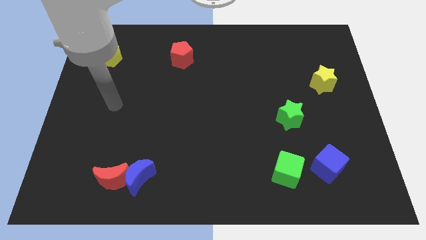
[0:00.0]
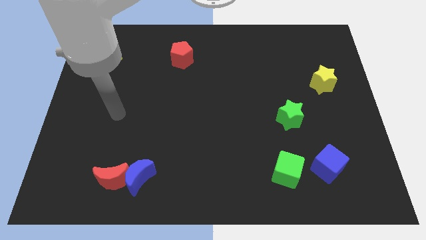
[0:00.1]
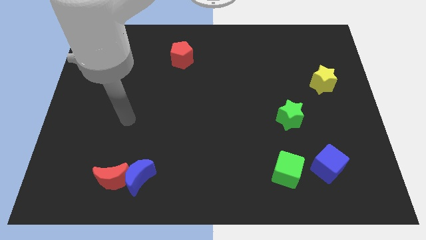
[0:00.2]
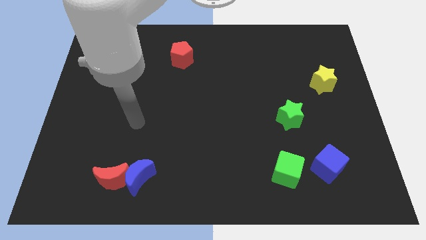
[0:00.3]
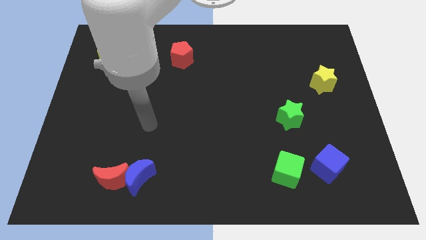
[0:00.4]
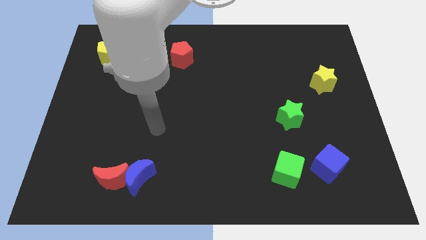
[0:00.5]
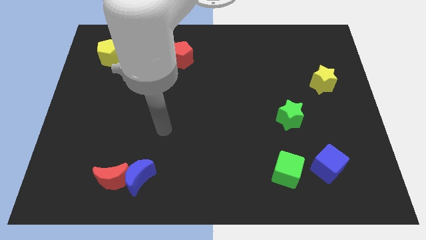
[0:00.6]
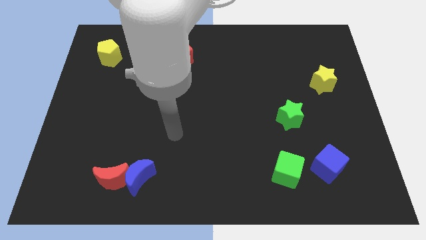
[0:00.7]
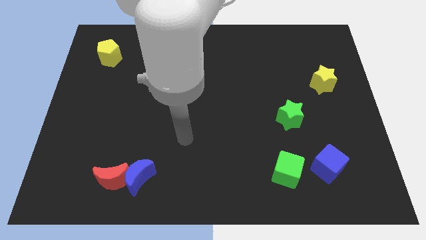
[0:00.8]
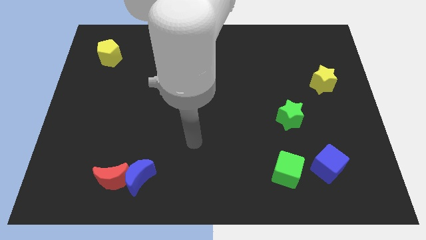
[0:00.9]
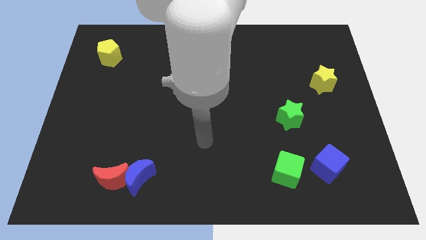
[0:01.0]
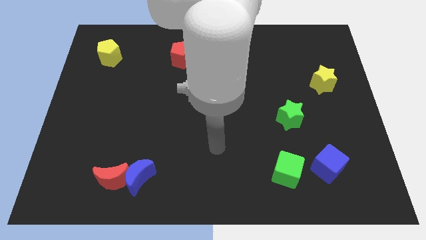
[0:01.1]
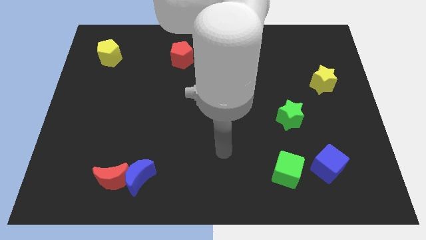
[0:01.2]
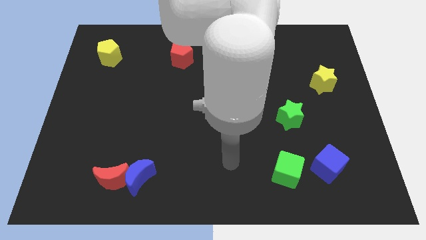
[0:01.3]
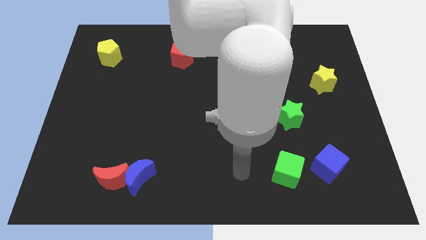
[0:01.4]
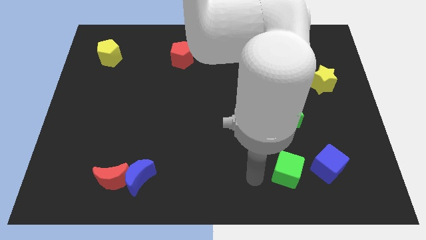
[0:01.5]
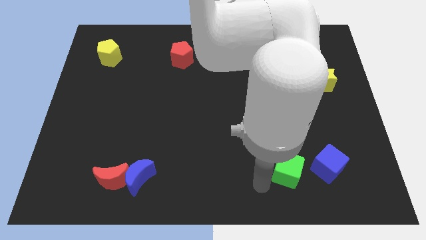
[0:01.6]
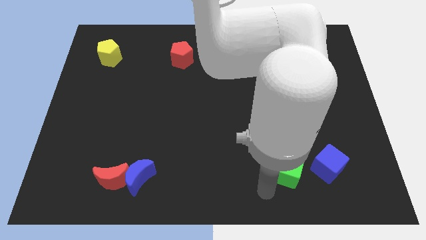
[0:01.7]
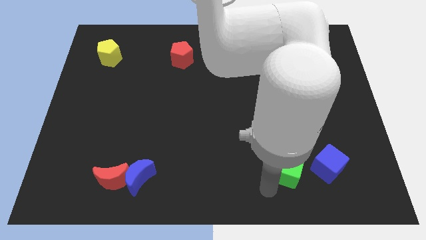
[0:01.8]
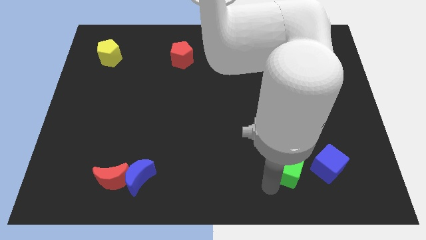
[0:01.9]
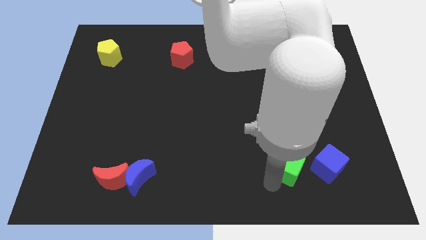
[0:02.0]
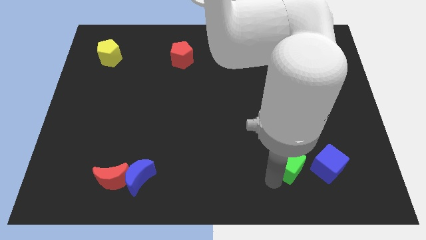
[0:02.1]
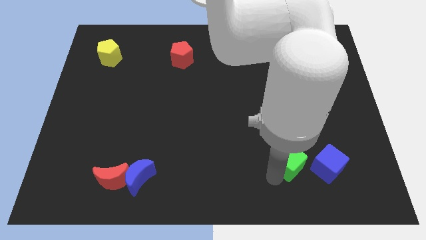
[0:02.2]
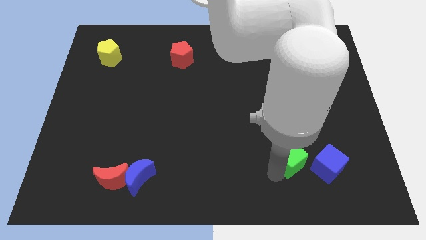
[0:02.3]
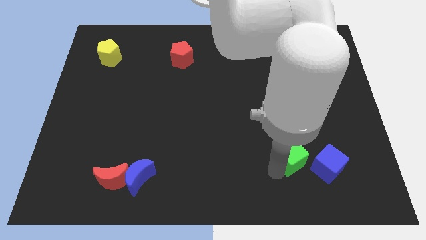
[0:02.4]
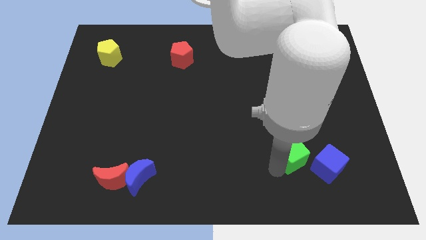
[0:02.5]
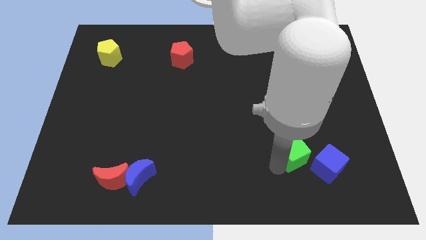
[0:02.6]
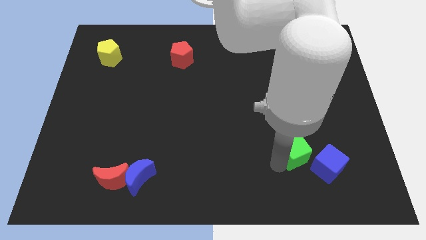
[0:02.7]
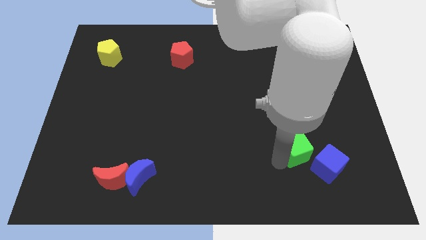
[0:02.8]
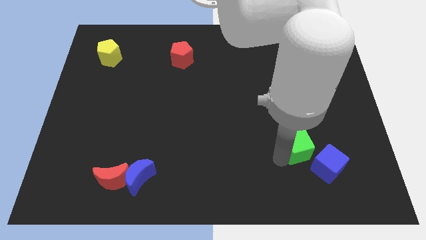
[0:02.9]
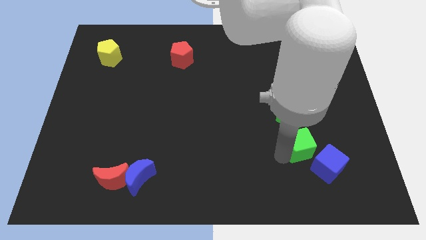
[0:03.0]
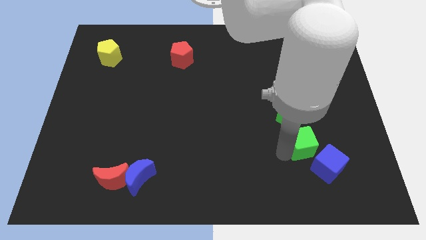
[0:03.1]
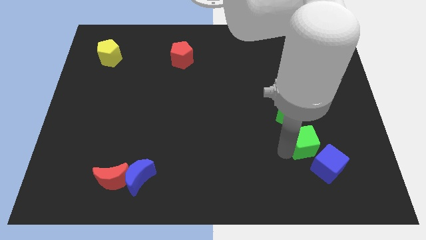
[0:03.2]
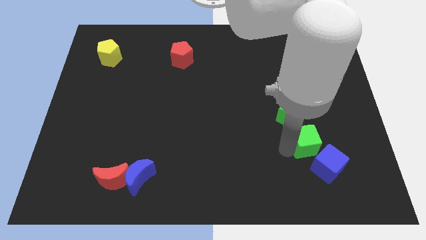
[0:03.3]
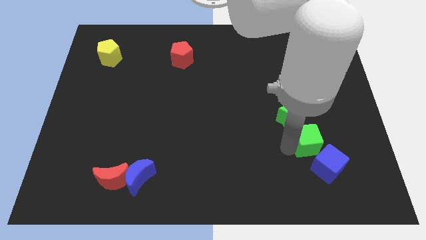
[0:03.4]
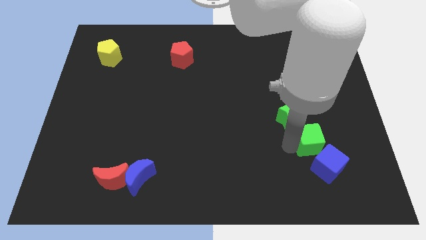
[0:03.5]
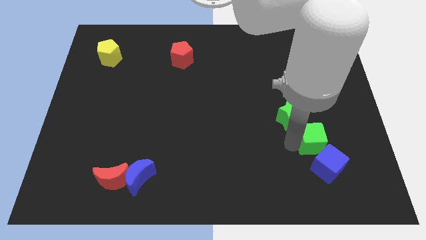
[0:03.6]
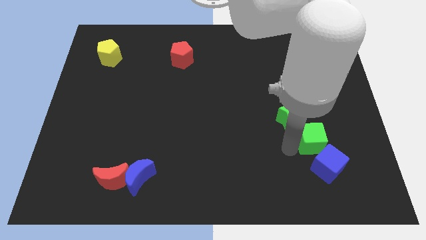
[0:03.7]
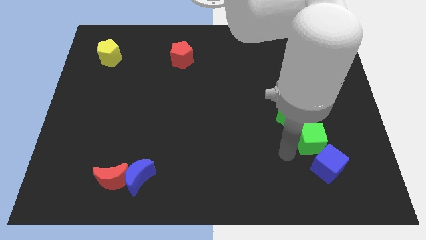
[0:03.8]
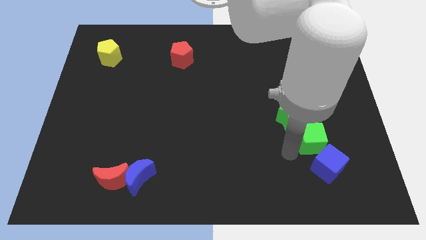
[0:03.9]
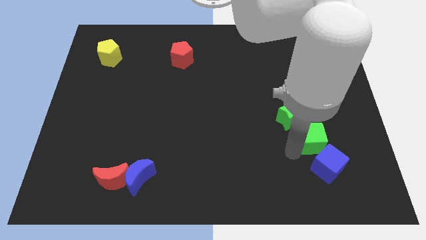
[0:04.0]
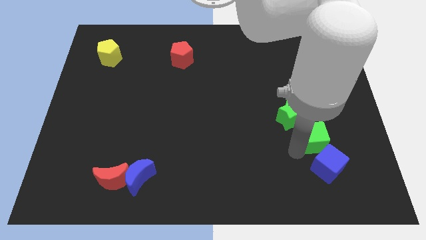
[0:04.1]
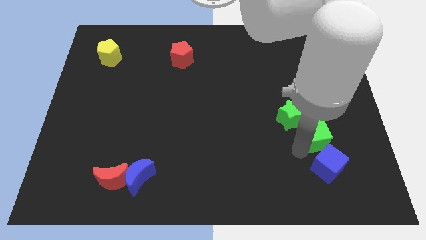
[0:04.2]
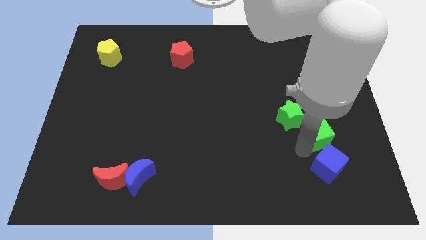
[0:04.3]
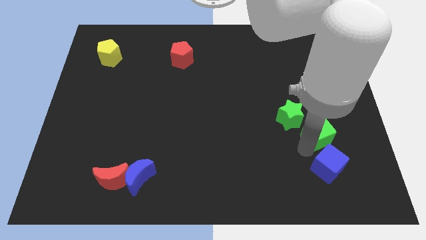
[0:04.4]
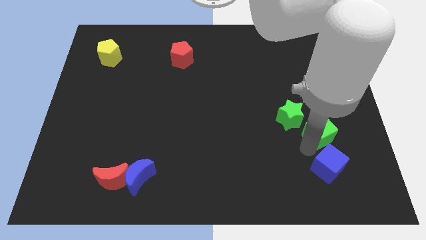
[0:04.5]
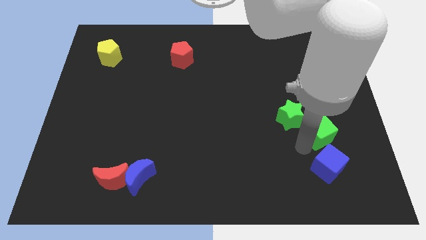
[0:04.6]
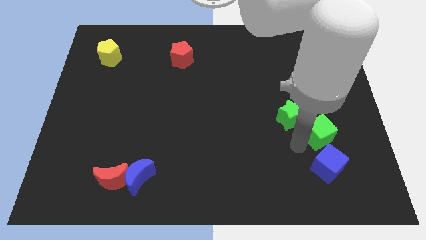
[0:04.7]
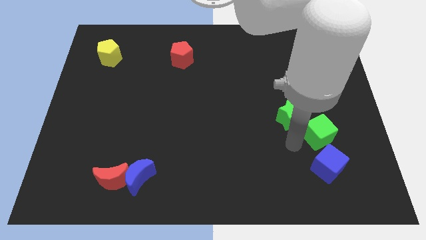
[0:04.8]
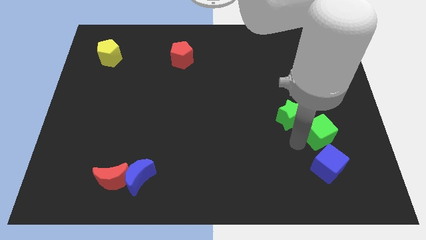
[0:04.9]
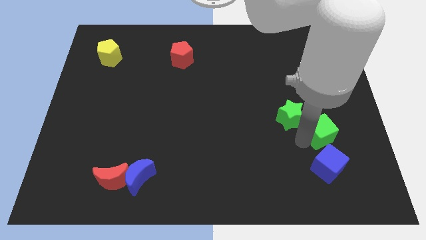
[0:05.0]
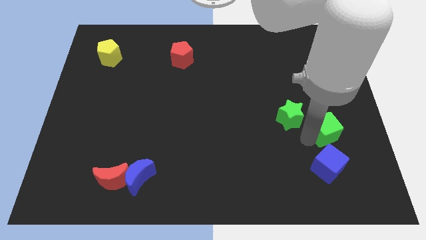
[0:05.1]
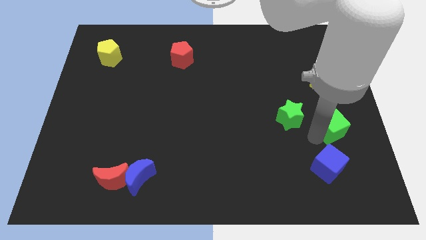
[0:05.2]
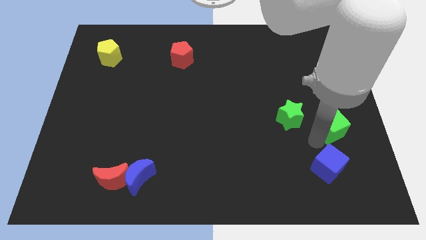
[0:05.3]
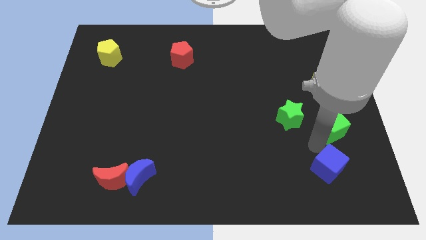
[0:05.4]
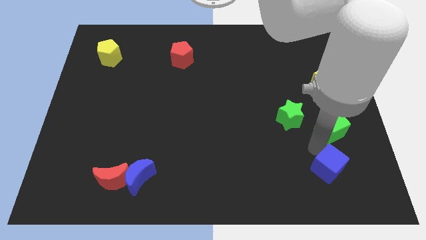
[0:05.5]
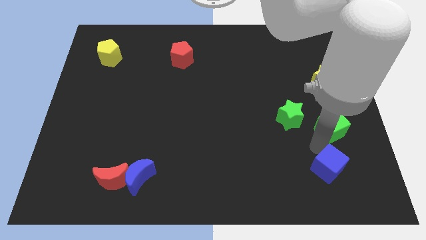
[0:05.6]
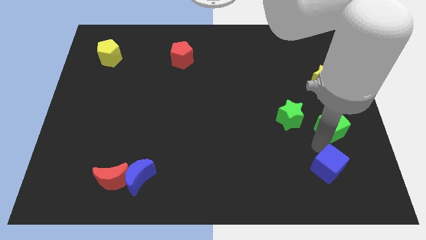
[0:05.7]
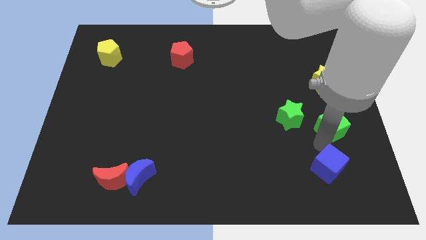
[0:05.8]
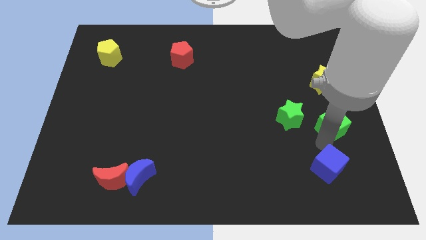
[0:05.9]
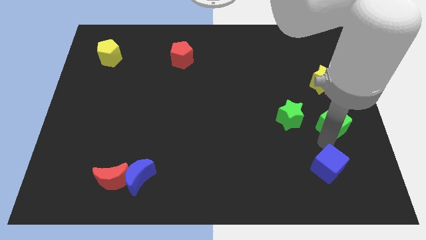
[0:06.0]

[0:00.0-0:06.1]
slide the green cube to the right side of the board

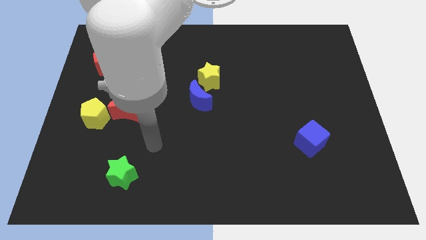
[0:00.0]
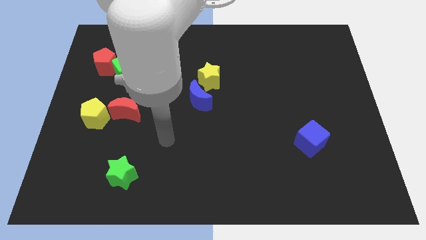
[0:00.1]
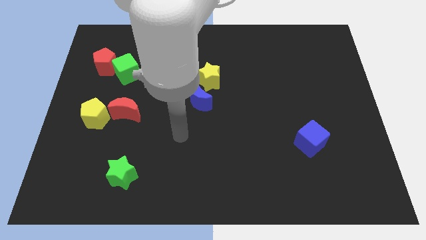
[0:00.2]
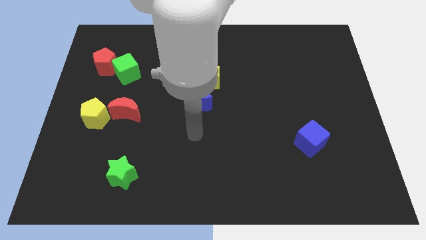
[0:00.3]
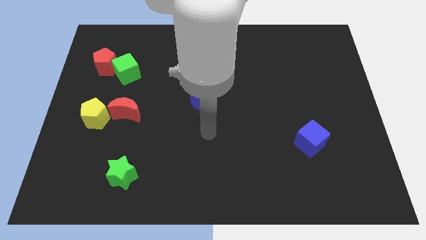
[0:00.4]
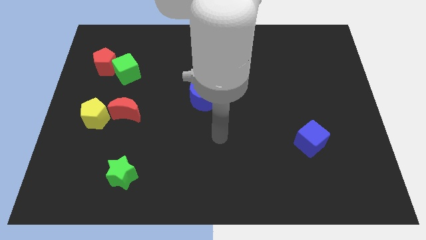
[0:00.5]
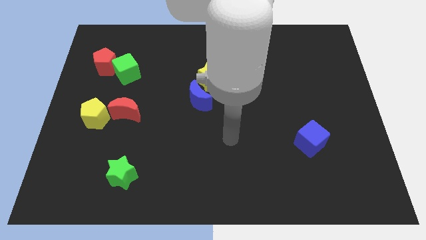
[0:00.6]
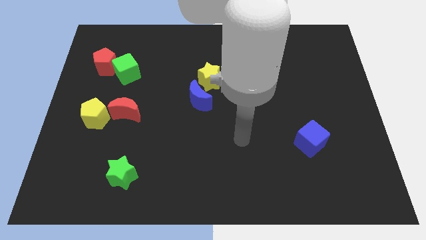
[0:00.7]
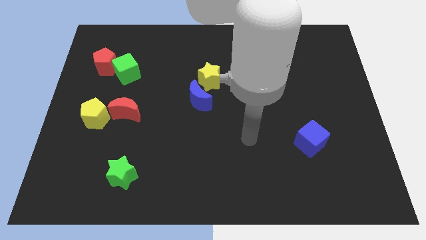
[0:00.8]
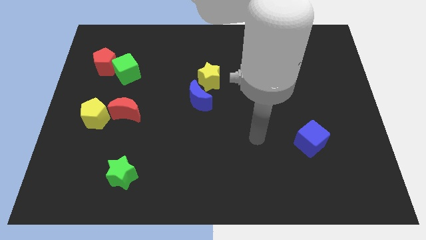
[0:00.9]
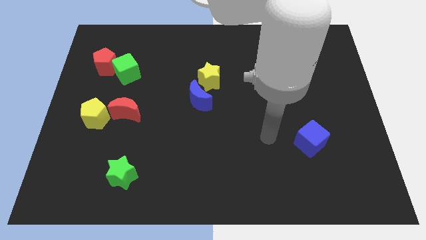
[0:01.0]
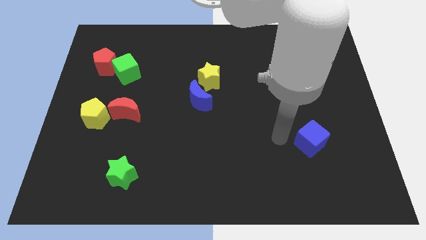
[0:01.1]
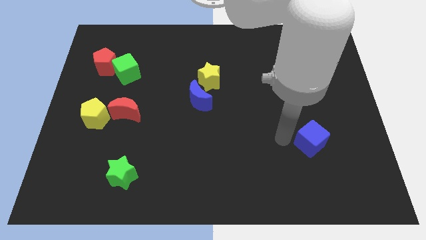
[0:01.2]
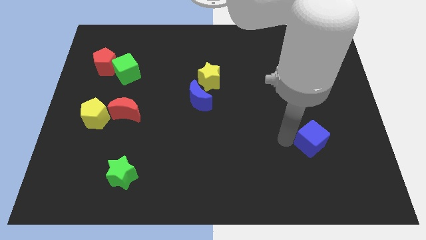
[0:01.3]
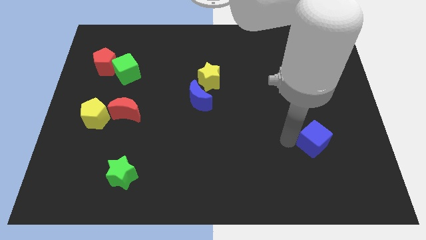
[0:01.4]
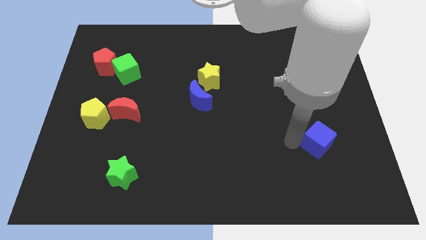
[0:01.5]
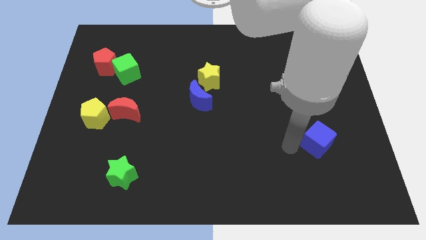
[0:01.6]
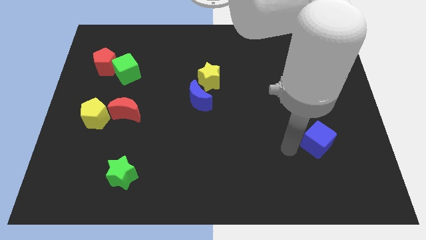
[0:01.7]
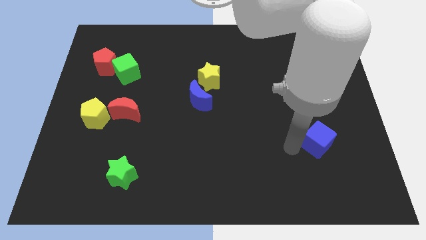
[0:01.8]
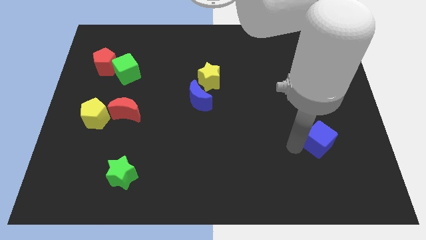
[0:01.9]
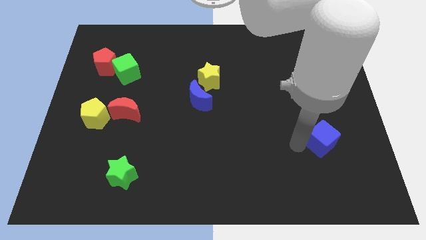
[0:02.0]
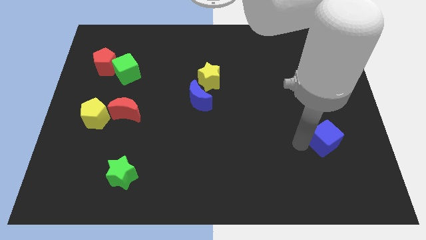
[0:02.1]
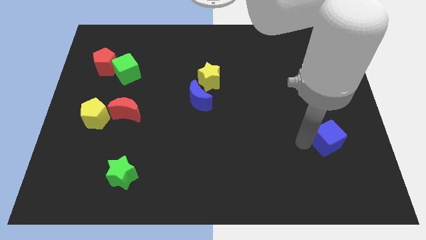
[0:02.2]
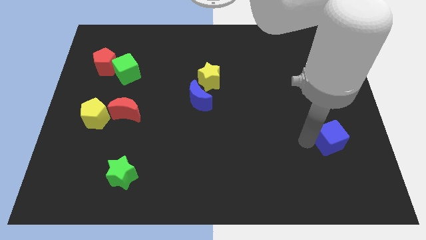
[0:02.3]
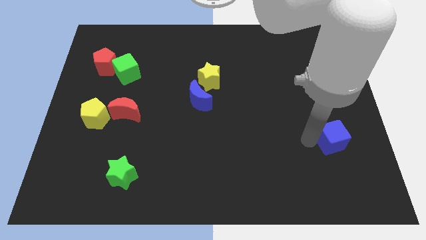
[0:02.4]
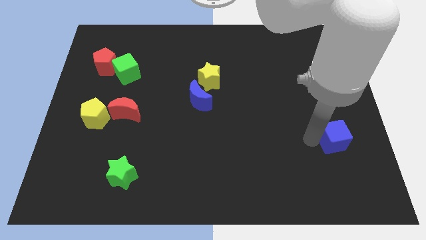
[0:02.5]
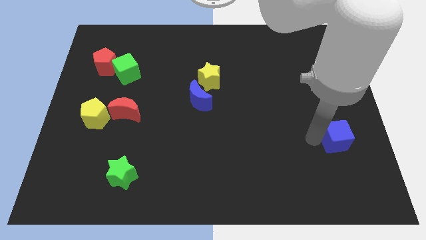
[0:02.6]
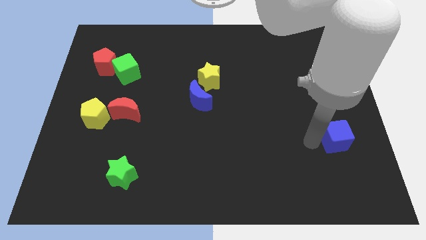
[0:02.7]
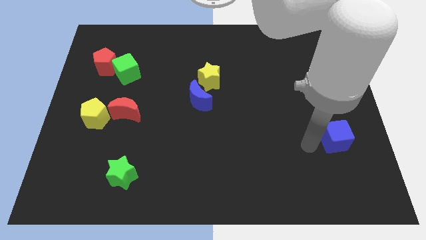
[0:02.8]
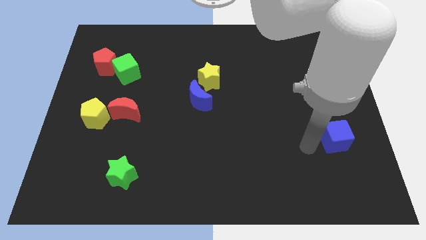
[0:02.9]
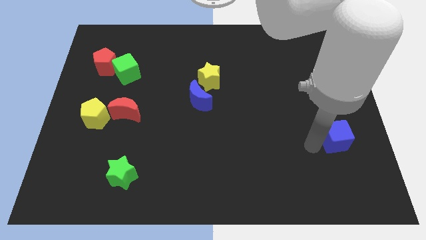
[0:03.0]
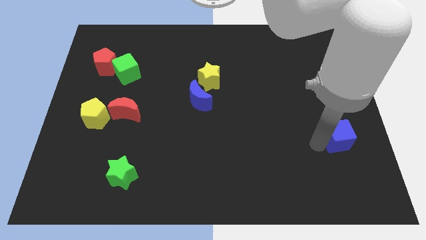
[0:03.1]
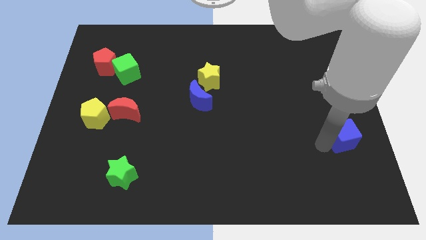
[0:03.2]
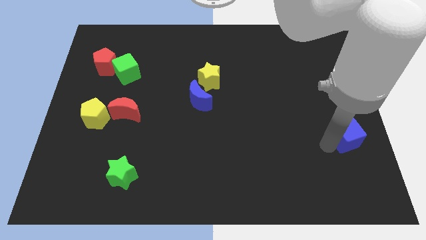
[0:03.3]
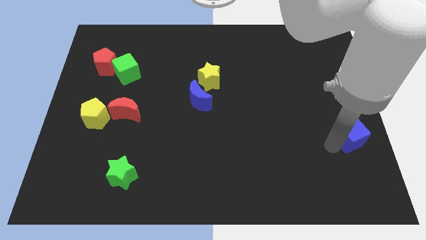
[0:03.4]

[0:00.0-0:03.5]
put the blue cube to the right side of the board
